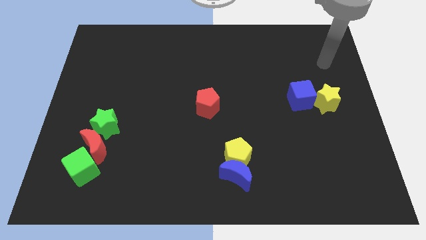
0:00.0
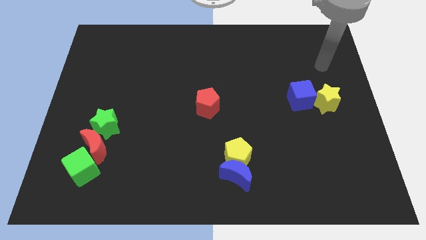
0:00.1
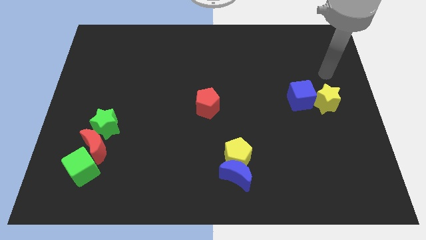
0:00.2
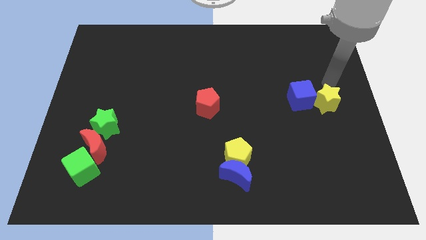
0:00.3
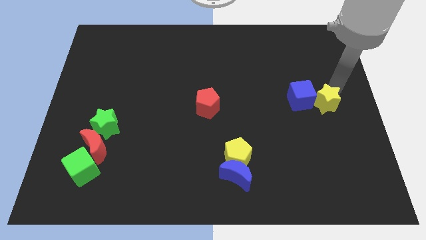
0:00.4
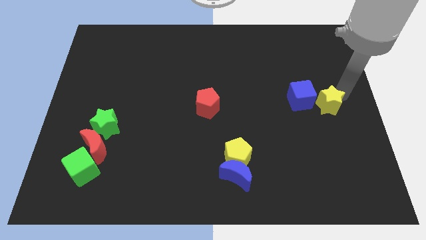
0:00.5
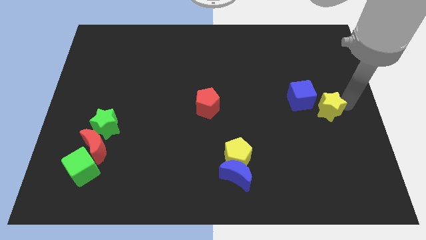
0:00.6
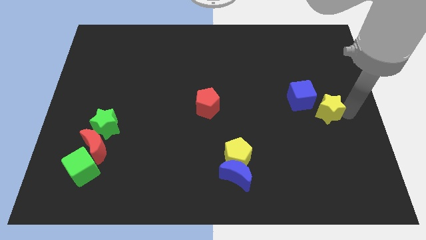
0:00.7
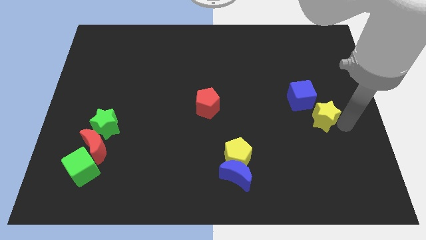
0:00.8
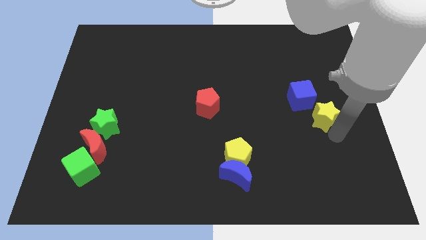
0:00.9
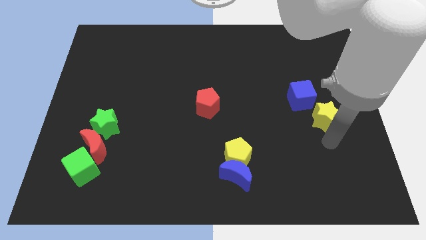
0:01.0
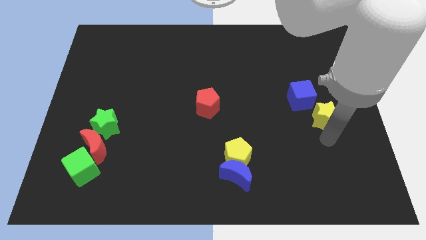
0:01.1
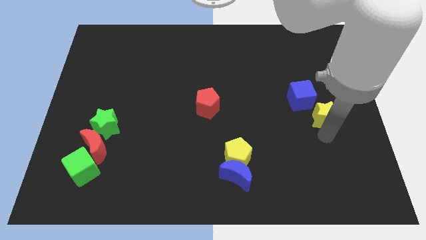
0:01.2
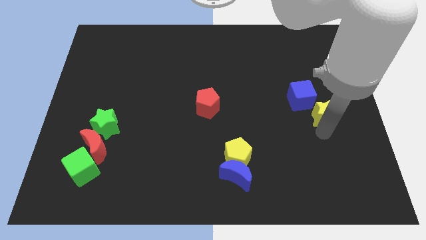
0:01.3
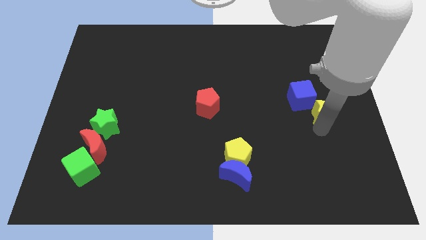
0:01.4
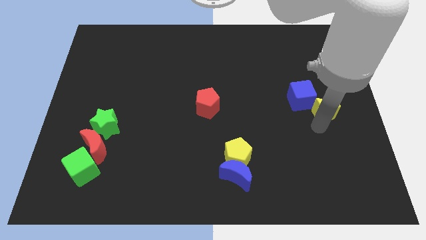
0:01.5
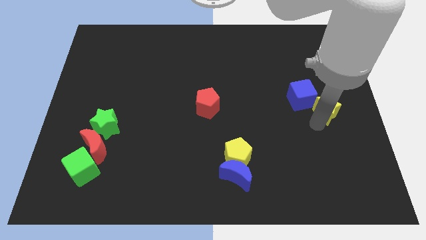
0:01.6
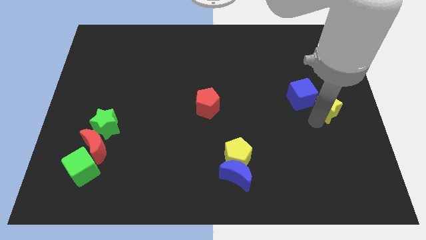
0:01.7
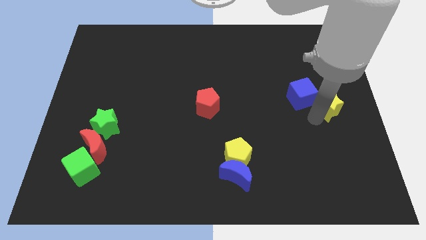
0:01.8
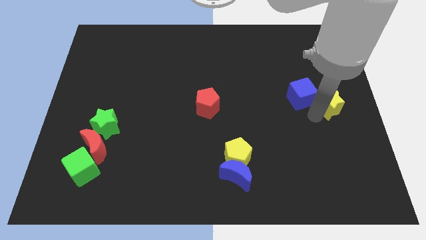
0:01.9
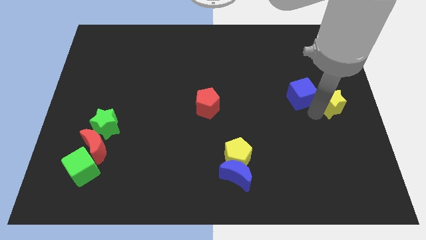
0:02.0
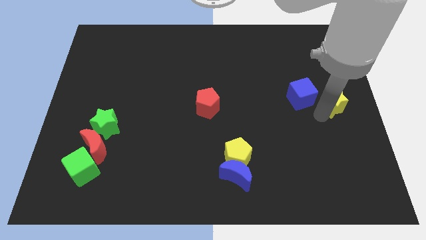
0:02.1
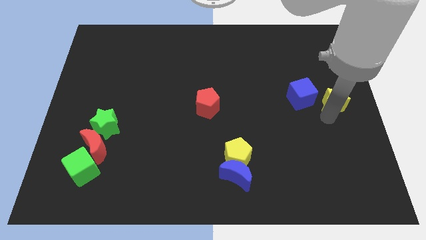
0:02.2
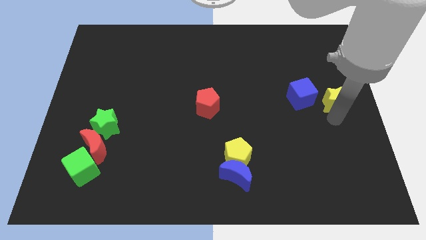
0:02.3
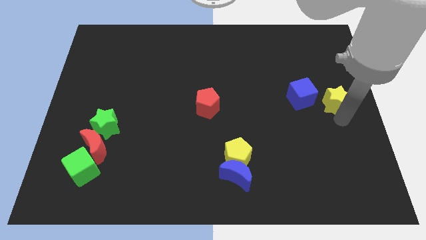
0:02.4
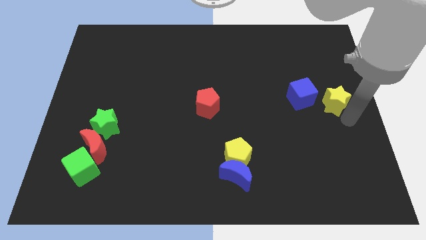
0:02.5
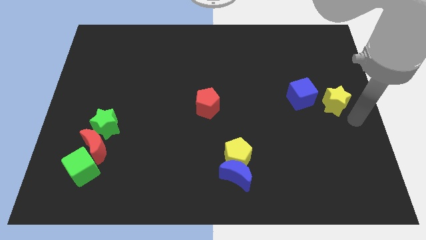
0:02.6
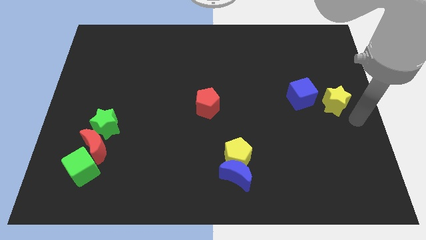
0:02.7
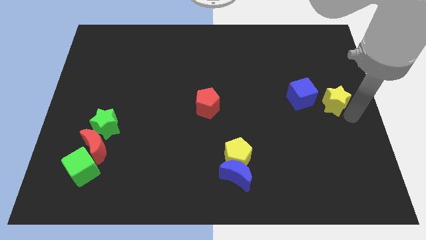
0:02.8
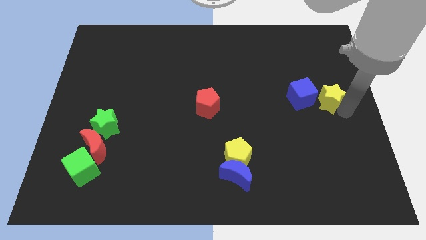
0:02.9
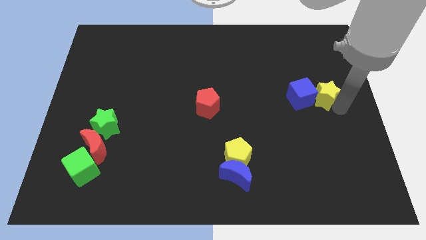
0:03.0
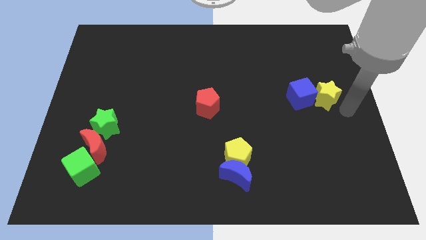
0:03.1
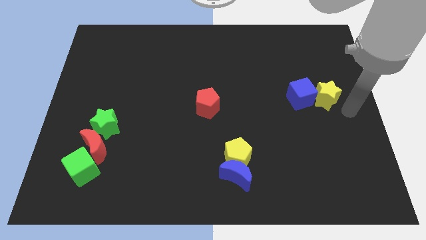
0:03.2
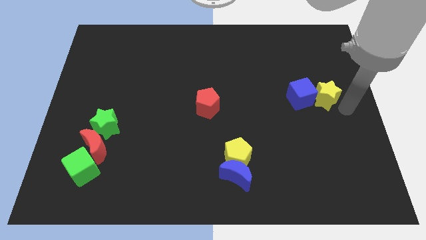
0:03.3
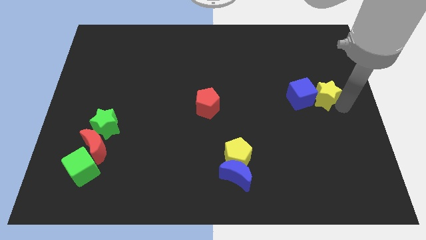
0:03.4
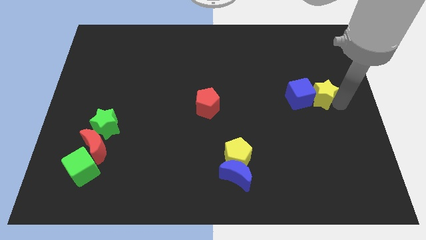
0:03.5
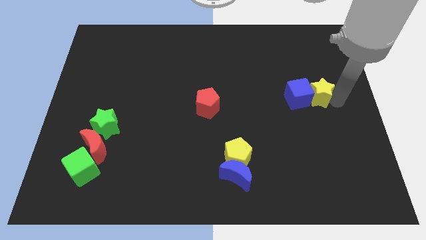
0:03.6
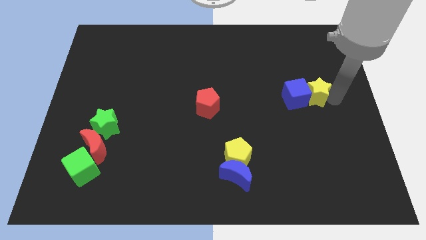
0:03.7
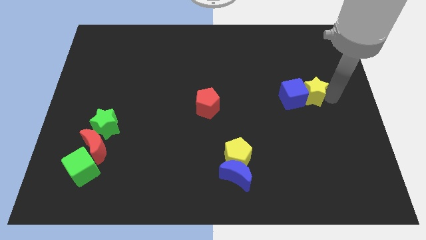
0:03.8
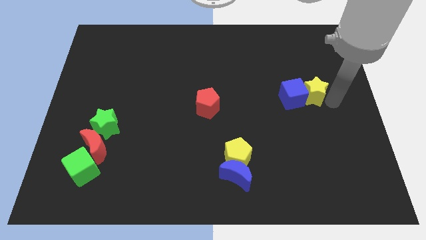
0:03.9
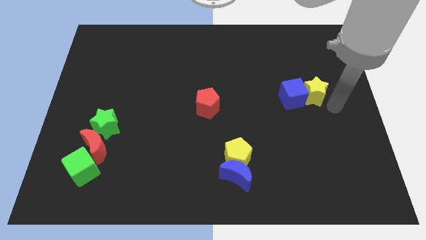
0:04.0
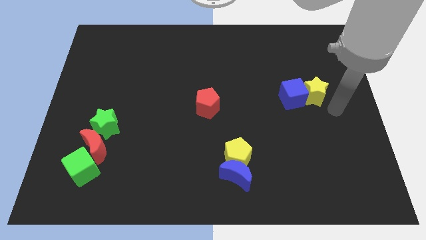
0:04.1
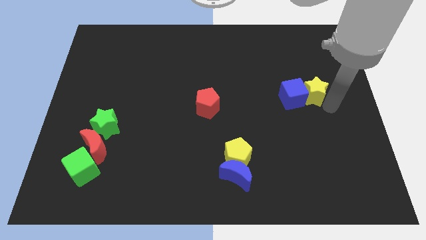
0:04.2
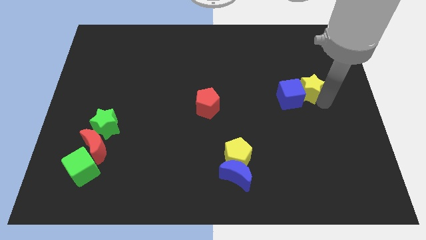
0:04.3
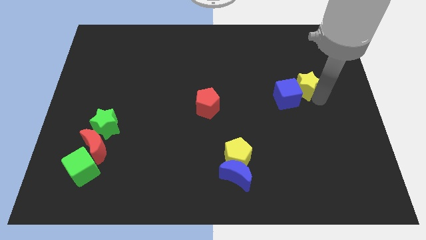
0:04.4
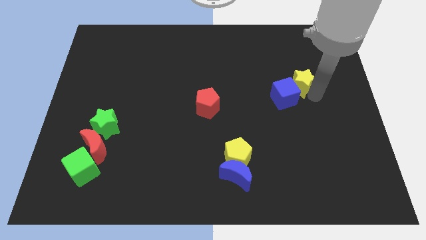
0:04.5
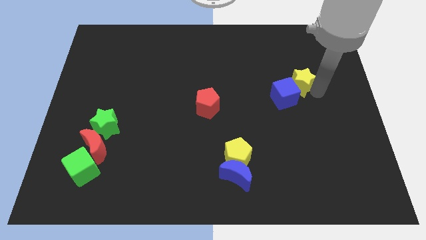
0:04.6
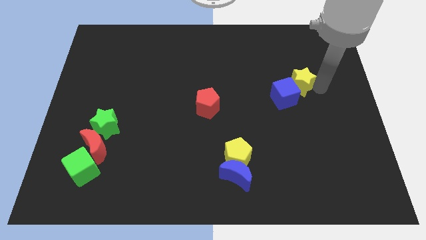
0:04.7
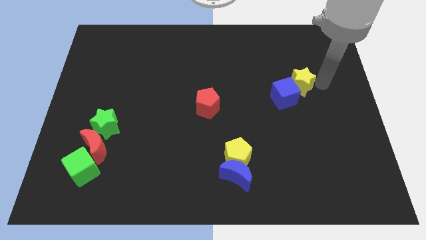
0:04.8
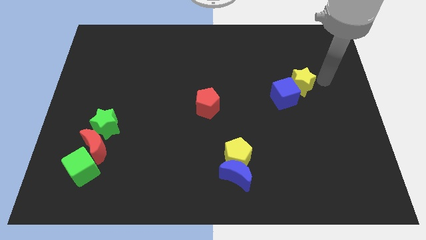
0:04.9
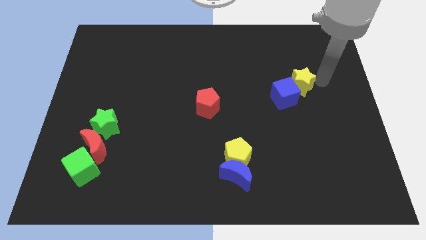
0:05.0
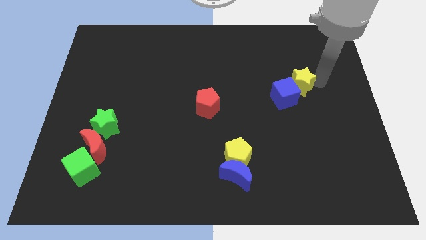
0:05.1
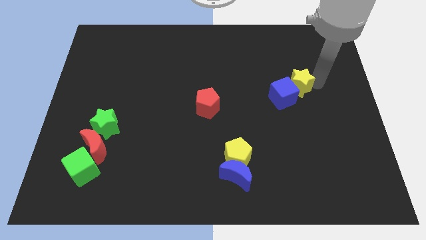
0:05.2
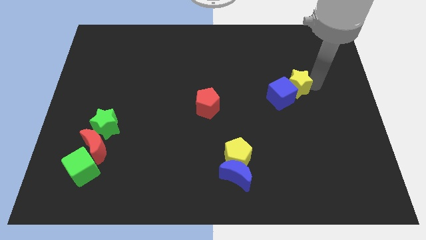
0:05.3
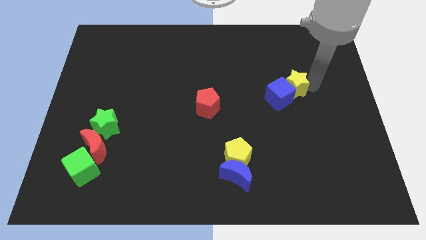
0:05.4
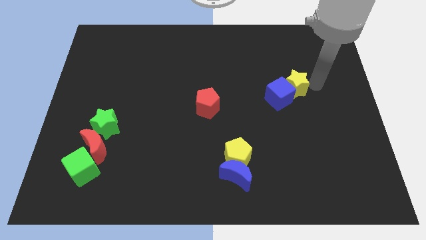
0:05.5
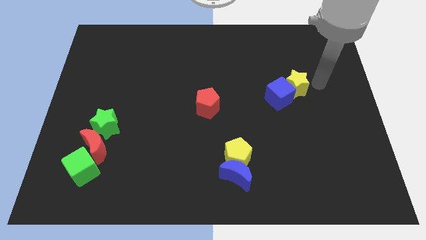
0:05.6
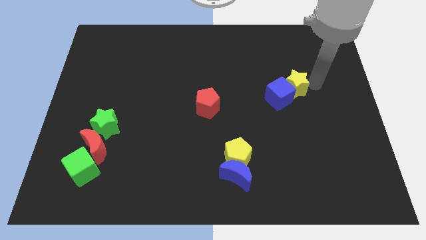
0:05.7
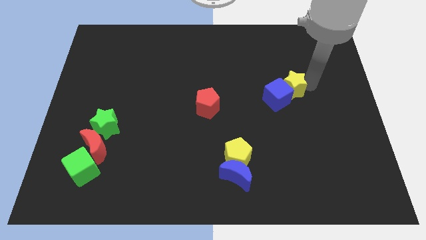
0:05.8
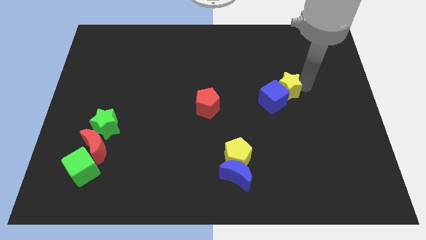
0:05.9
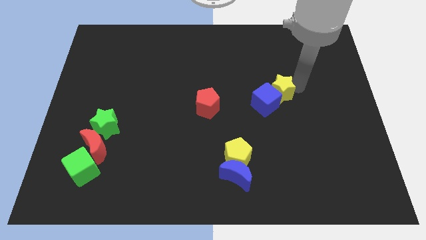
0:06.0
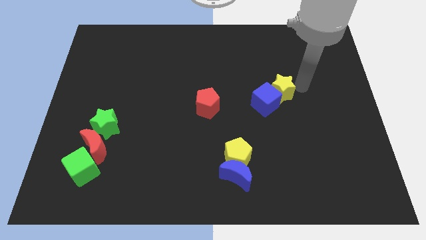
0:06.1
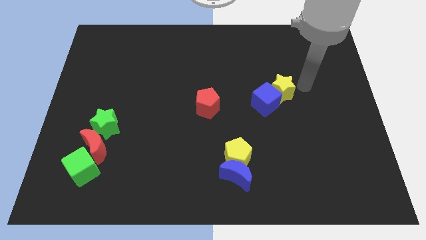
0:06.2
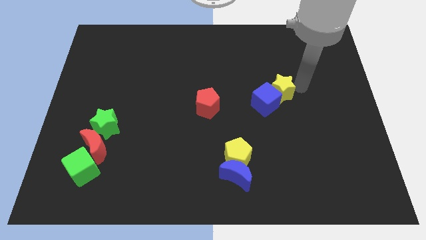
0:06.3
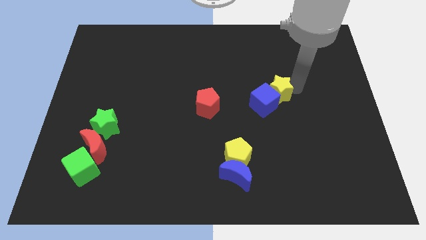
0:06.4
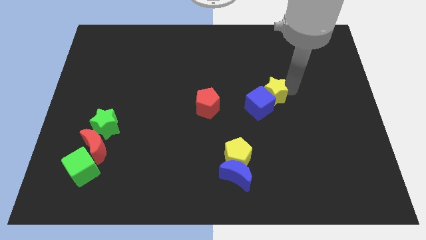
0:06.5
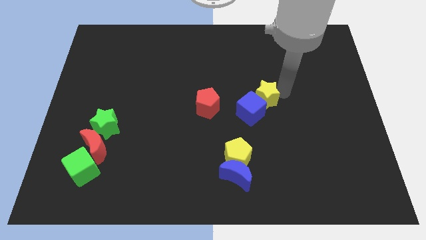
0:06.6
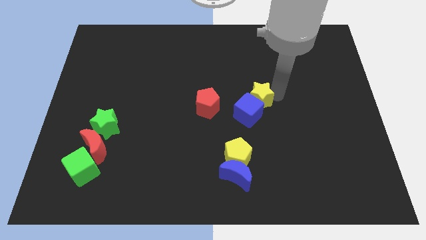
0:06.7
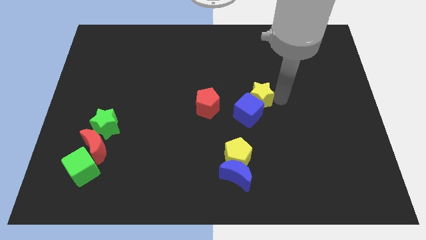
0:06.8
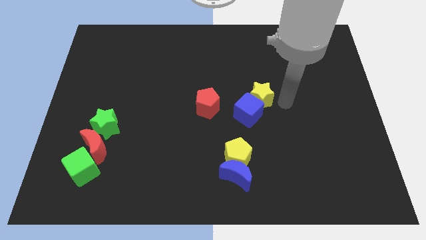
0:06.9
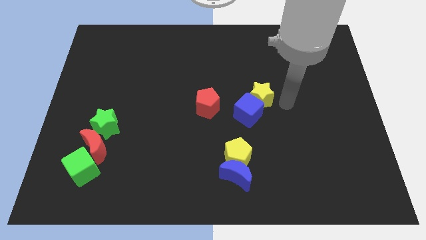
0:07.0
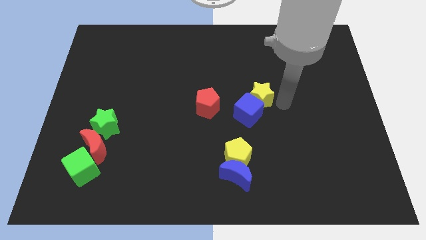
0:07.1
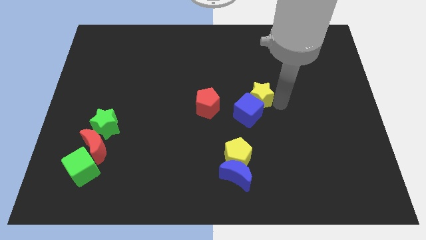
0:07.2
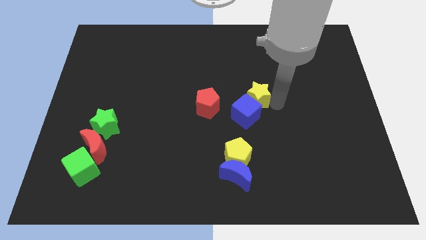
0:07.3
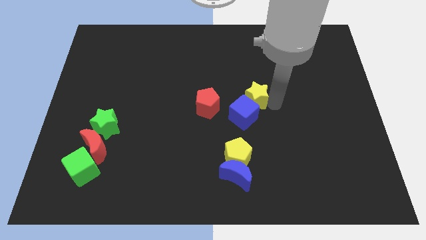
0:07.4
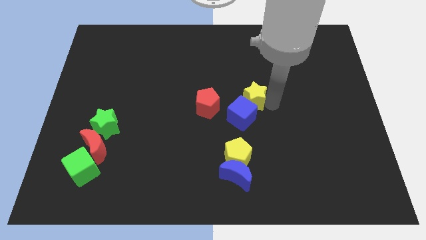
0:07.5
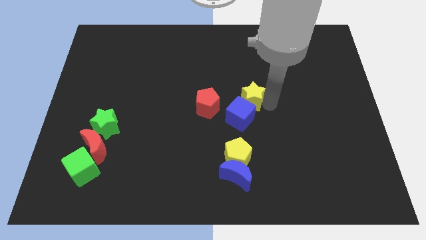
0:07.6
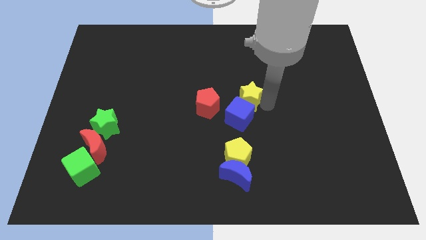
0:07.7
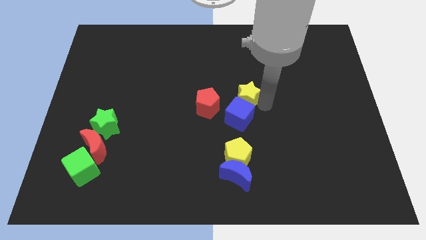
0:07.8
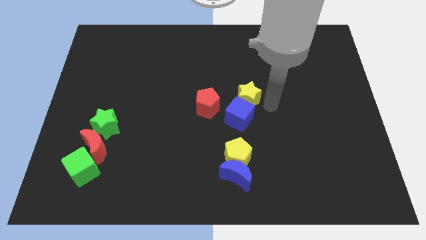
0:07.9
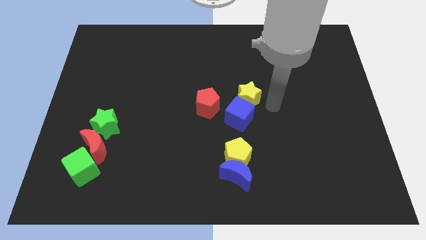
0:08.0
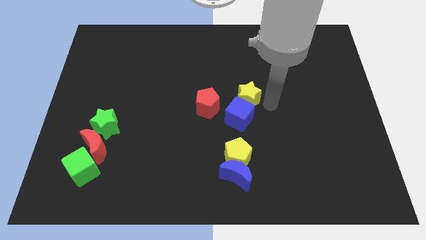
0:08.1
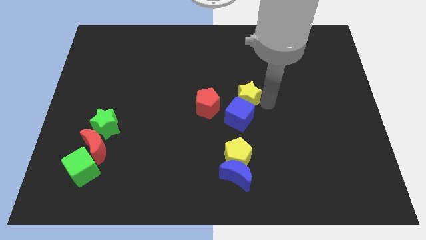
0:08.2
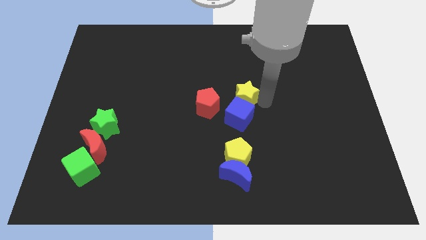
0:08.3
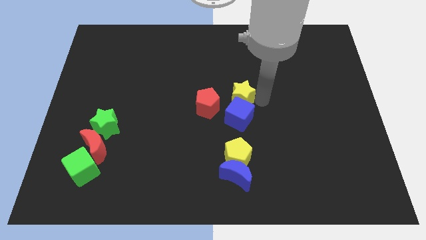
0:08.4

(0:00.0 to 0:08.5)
push the yellow star to the left
